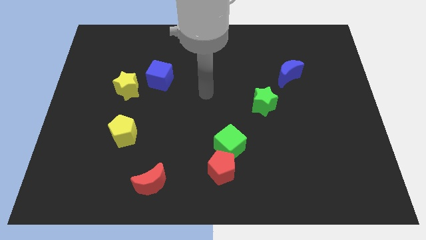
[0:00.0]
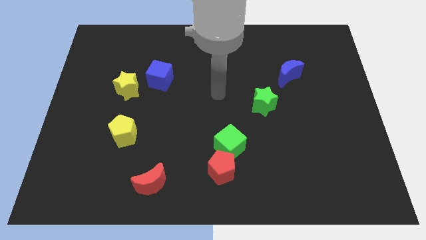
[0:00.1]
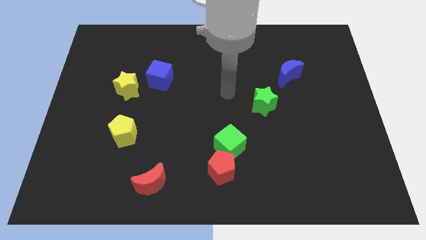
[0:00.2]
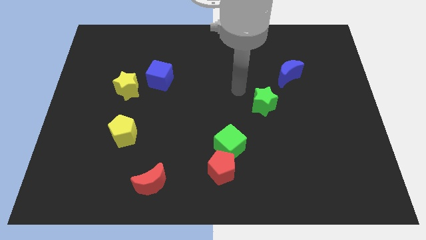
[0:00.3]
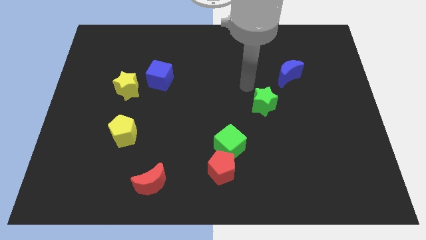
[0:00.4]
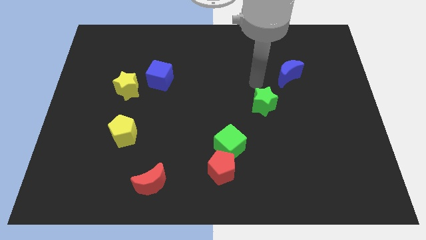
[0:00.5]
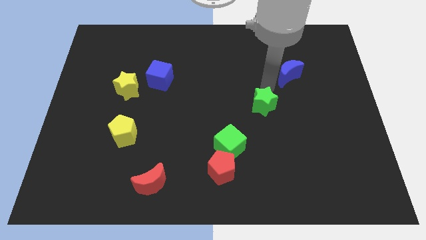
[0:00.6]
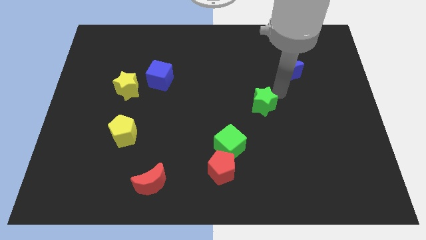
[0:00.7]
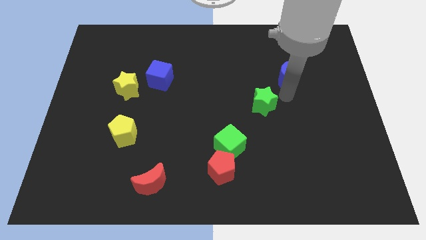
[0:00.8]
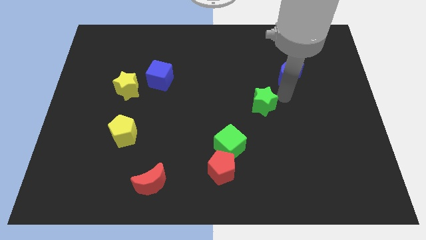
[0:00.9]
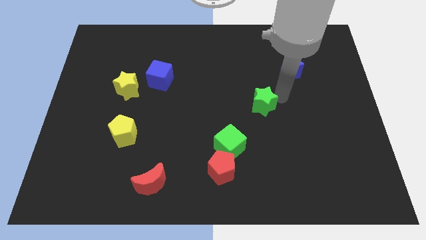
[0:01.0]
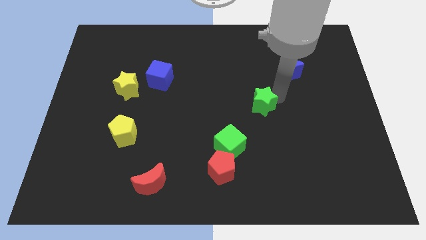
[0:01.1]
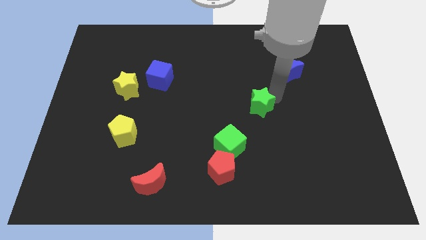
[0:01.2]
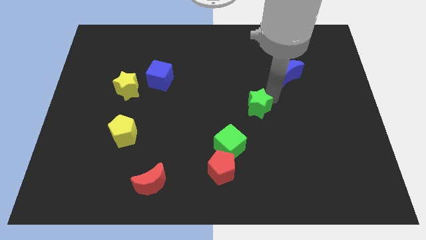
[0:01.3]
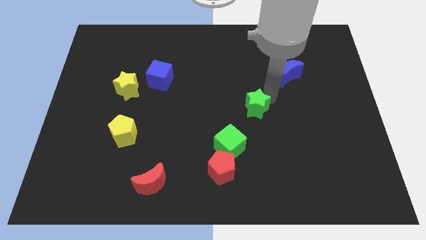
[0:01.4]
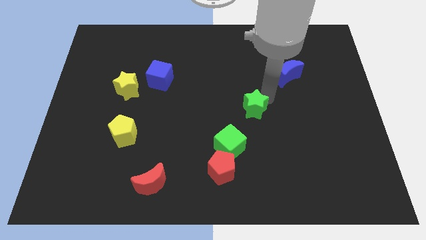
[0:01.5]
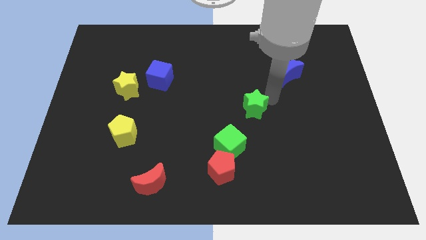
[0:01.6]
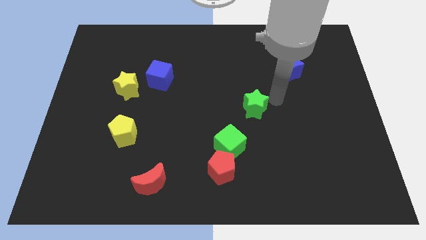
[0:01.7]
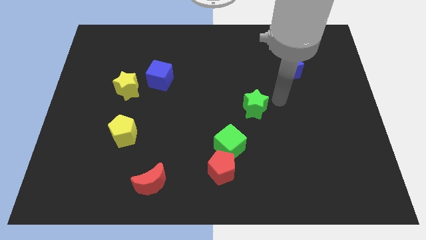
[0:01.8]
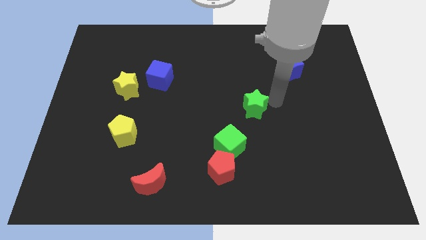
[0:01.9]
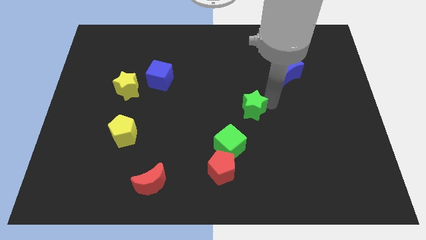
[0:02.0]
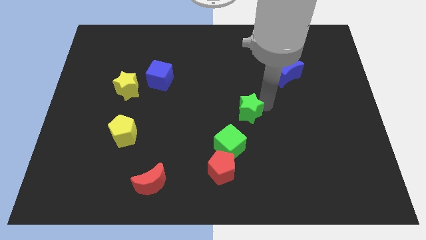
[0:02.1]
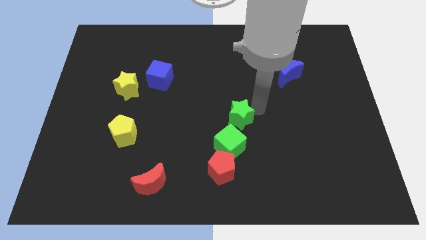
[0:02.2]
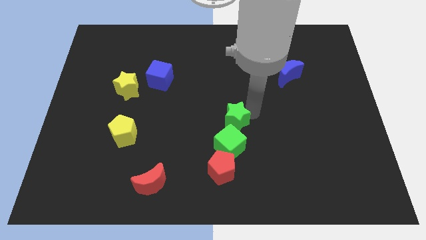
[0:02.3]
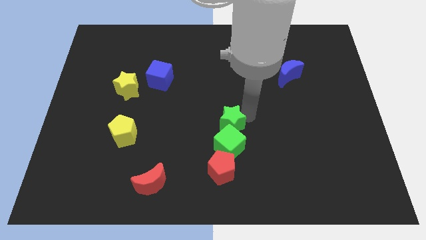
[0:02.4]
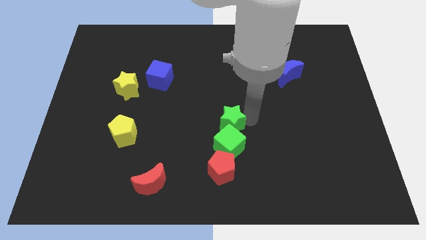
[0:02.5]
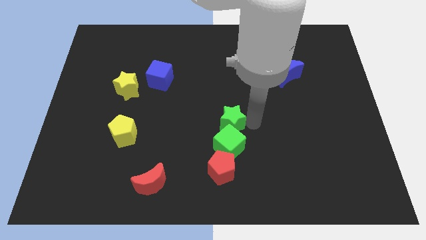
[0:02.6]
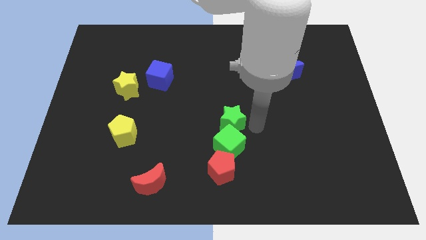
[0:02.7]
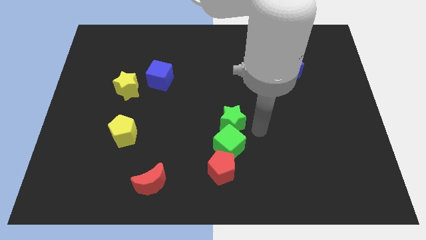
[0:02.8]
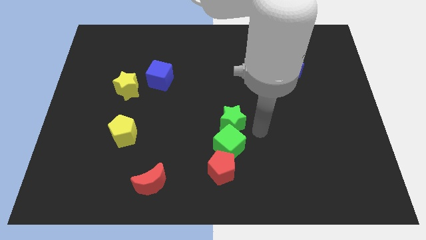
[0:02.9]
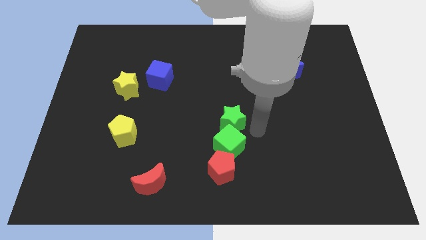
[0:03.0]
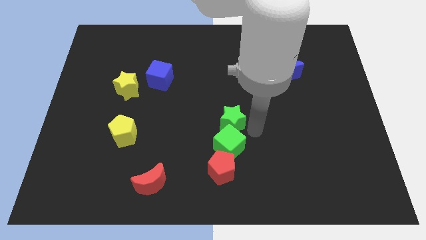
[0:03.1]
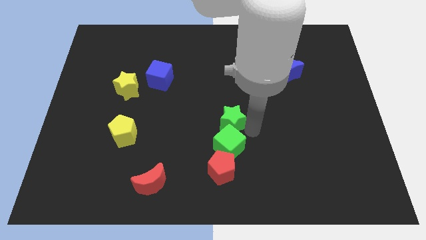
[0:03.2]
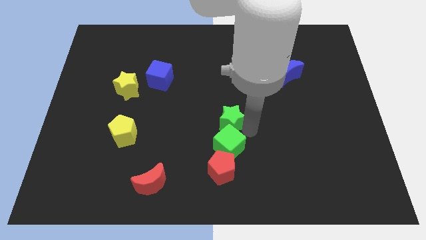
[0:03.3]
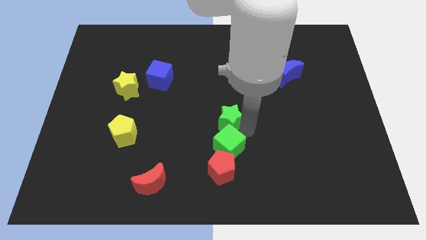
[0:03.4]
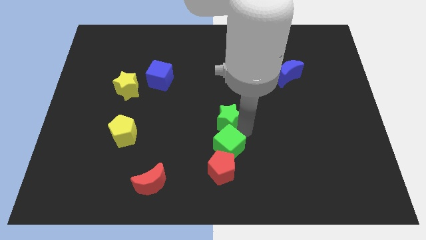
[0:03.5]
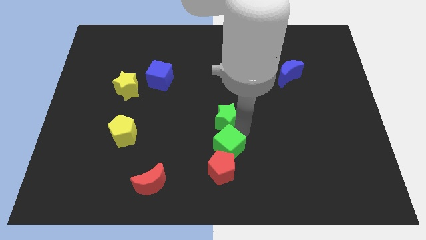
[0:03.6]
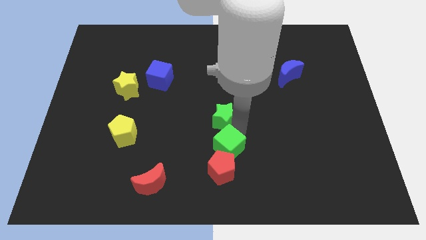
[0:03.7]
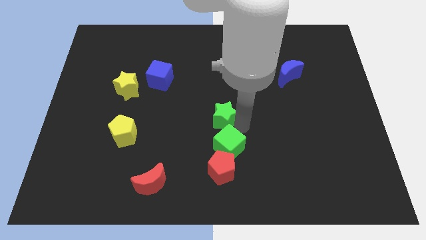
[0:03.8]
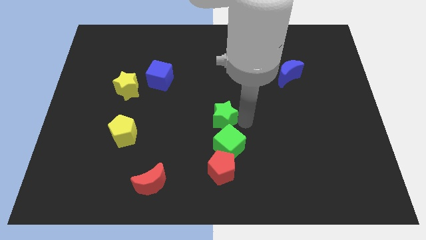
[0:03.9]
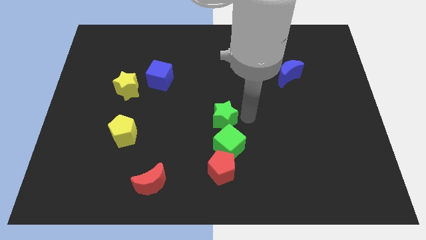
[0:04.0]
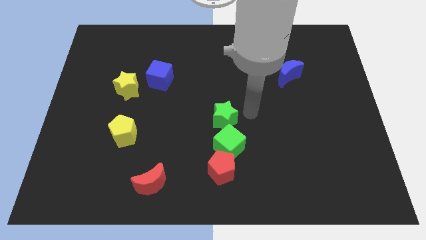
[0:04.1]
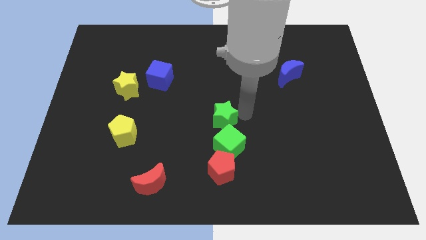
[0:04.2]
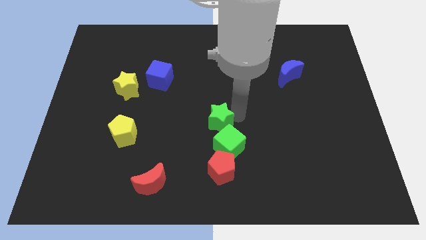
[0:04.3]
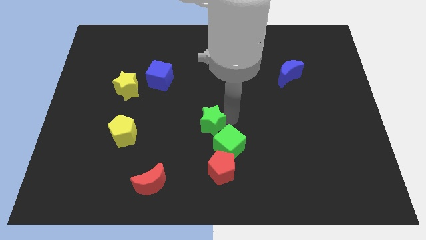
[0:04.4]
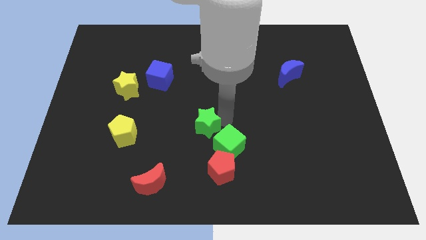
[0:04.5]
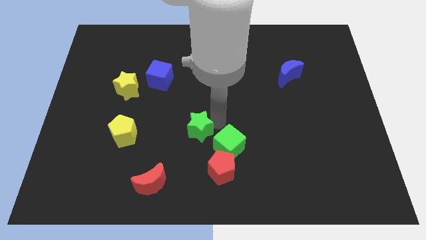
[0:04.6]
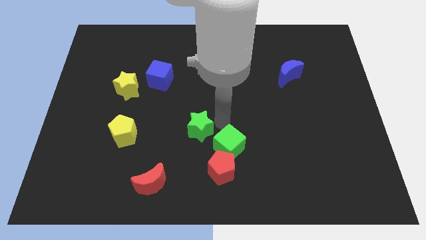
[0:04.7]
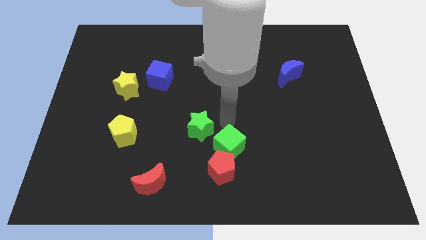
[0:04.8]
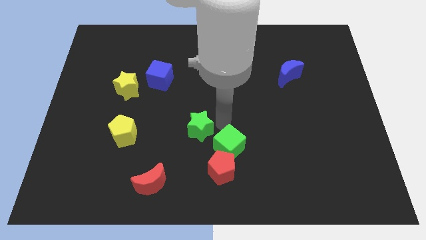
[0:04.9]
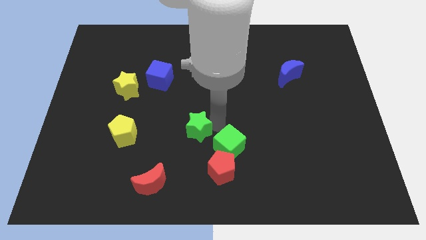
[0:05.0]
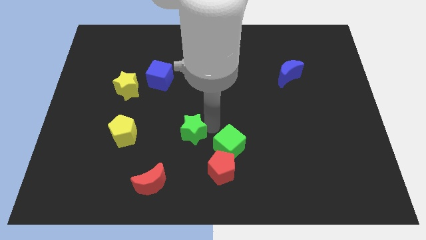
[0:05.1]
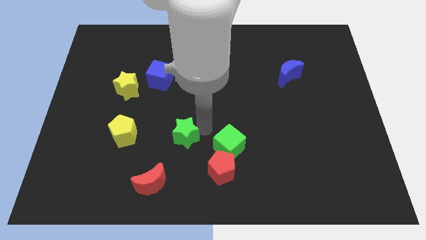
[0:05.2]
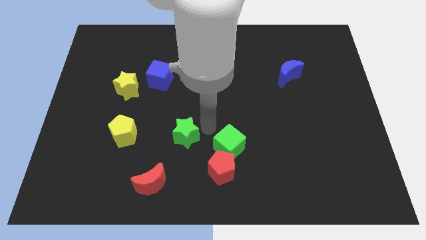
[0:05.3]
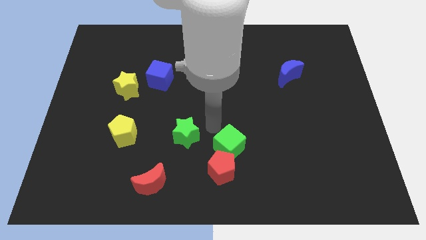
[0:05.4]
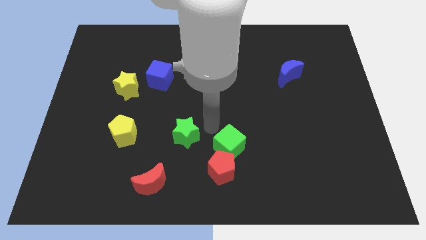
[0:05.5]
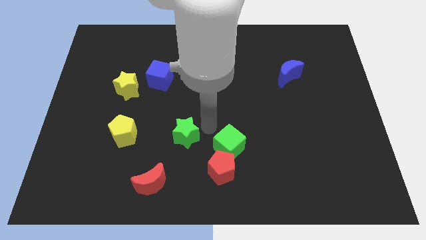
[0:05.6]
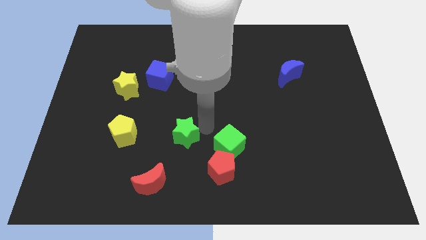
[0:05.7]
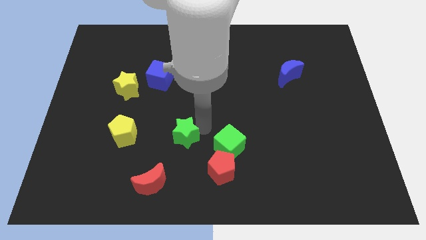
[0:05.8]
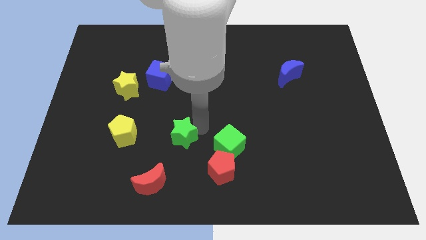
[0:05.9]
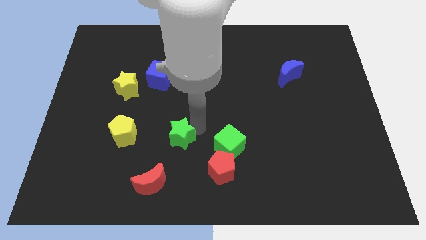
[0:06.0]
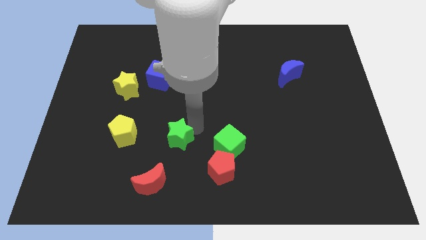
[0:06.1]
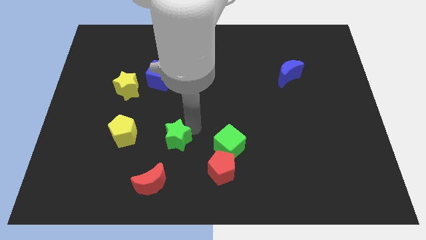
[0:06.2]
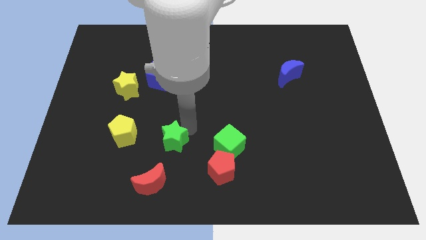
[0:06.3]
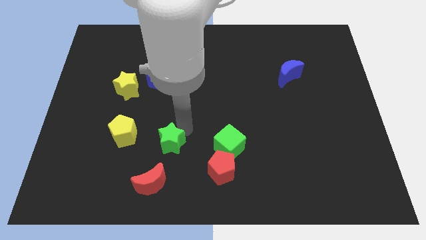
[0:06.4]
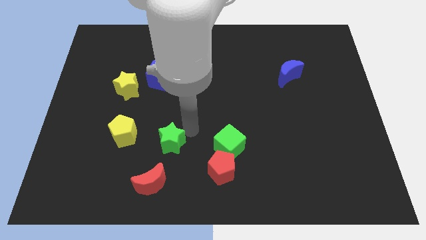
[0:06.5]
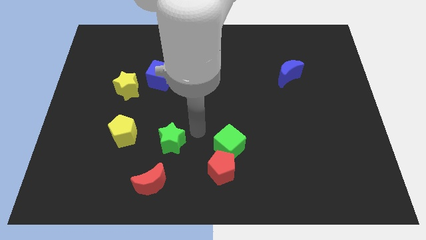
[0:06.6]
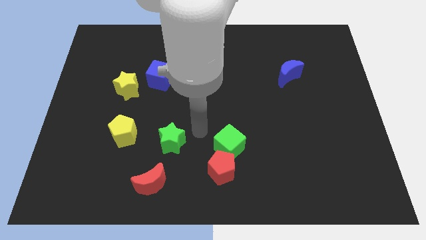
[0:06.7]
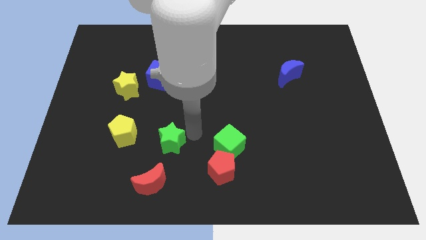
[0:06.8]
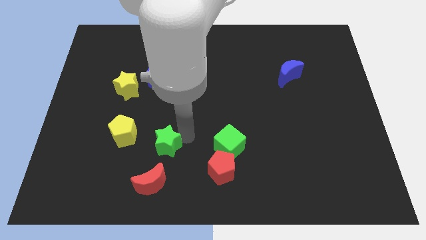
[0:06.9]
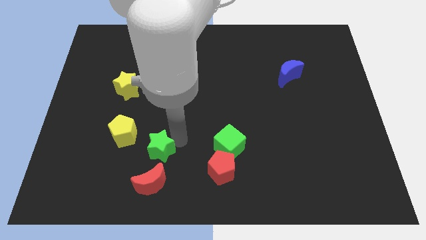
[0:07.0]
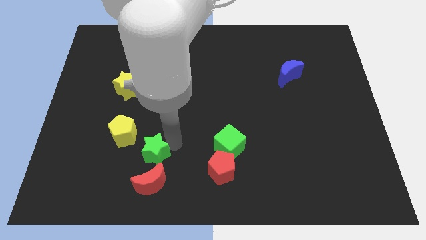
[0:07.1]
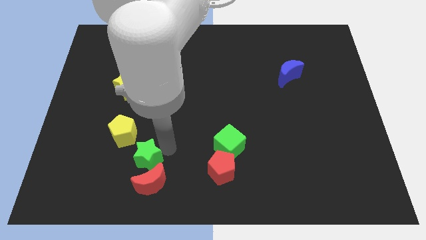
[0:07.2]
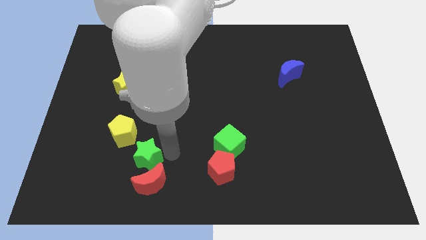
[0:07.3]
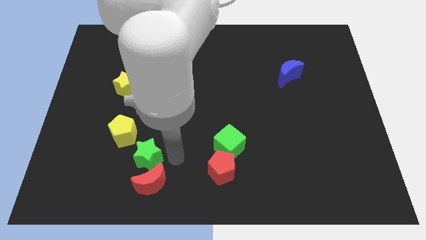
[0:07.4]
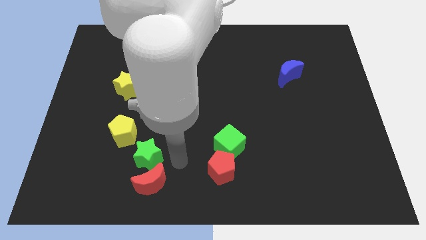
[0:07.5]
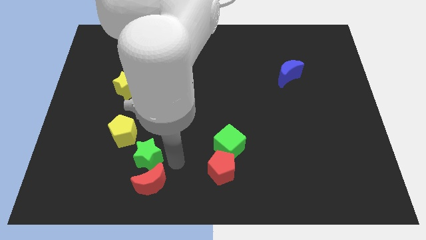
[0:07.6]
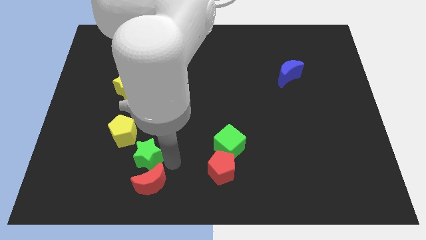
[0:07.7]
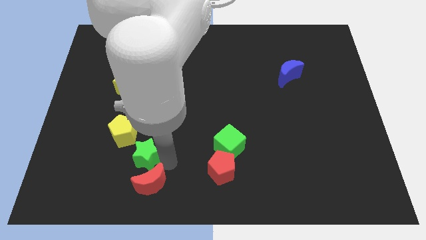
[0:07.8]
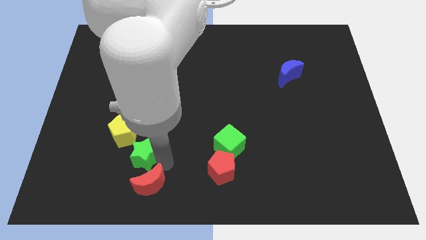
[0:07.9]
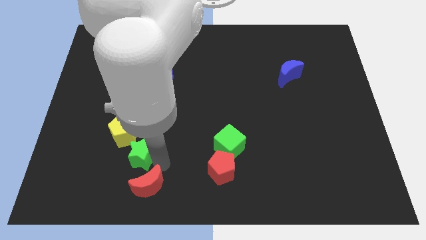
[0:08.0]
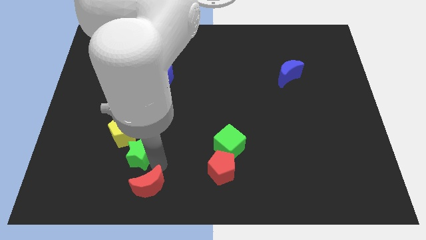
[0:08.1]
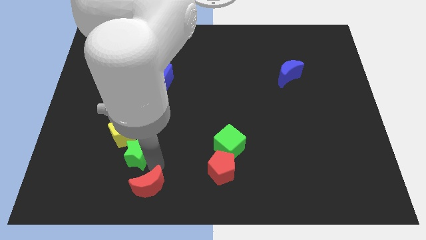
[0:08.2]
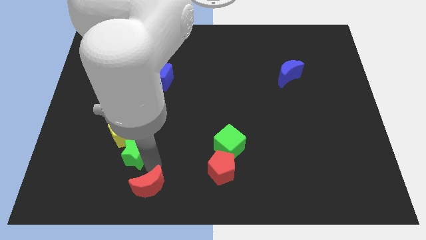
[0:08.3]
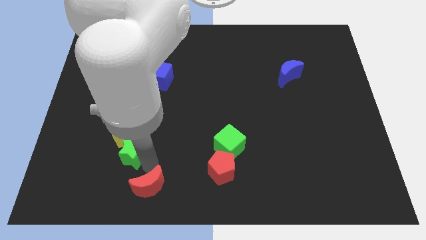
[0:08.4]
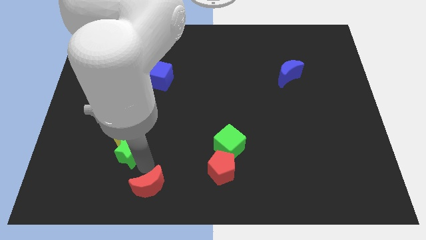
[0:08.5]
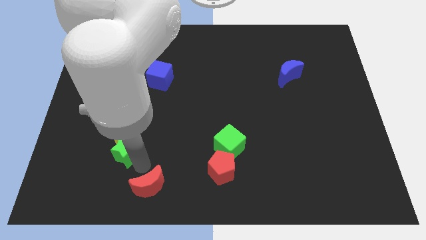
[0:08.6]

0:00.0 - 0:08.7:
push the green star diagonally down and to the left of the yellow pentagon
